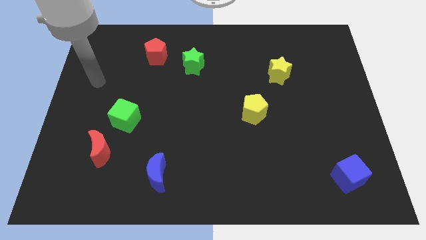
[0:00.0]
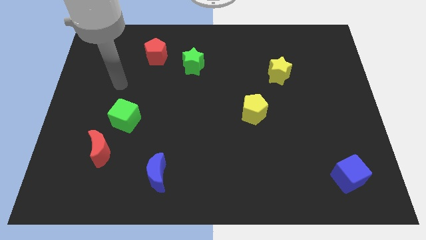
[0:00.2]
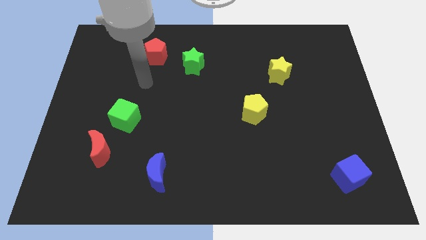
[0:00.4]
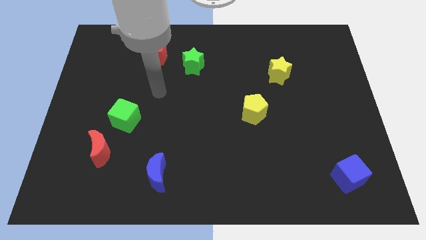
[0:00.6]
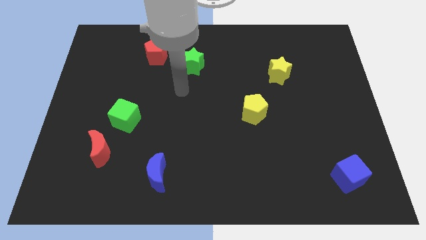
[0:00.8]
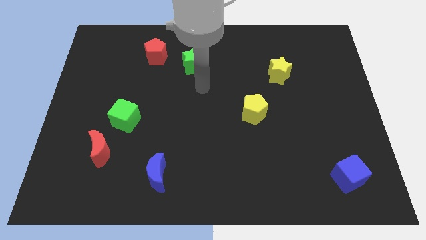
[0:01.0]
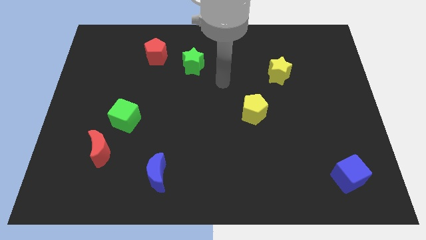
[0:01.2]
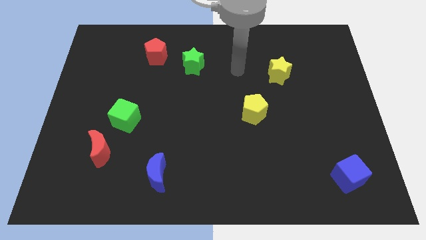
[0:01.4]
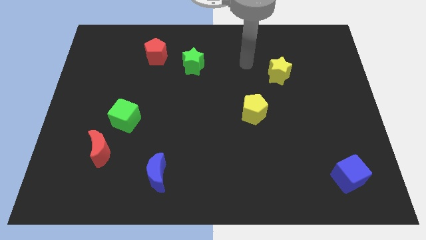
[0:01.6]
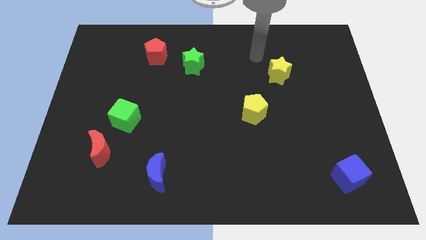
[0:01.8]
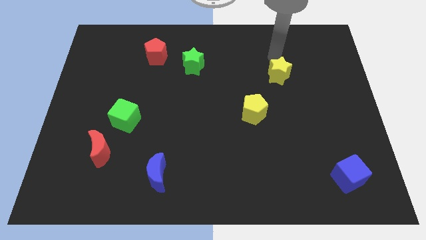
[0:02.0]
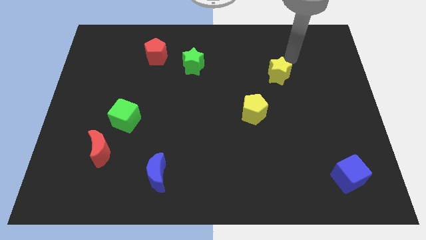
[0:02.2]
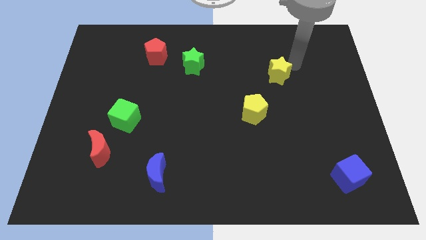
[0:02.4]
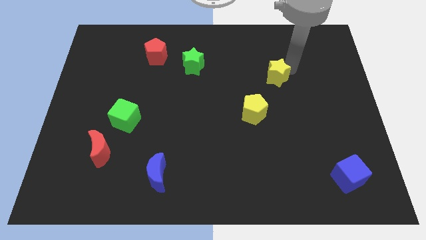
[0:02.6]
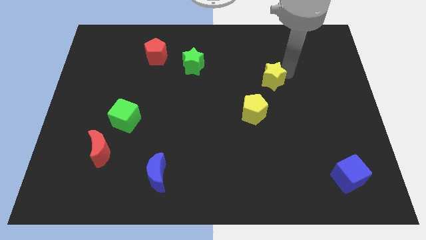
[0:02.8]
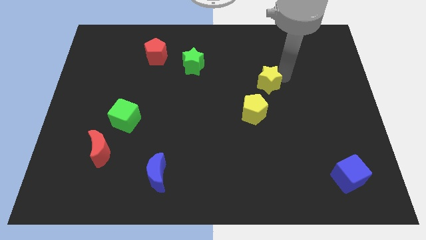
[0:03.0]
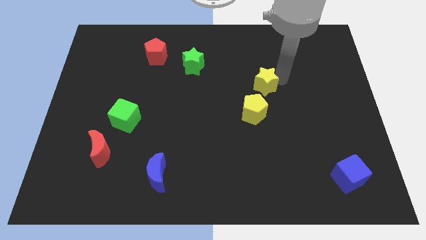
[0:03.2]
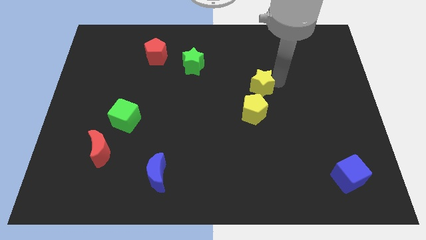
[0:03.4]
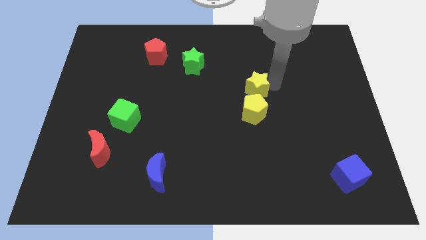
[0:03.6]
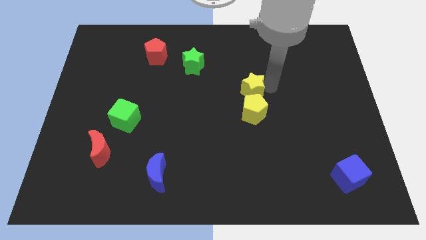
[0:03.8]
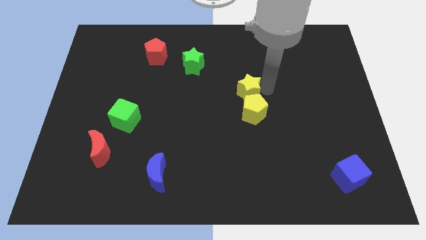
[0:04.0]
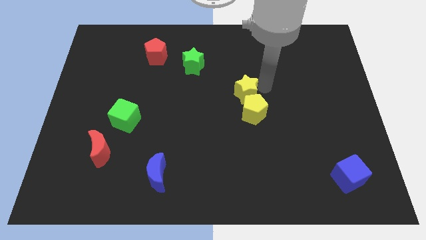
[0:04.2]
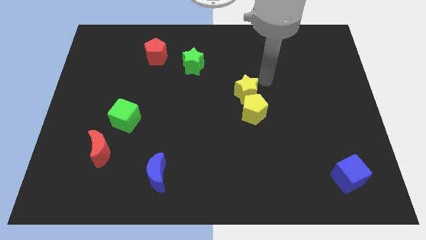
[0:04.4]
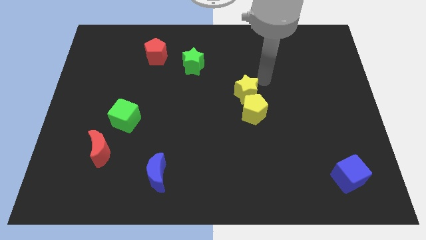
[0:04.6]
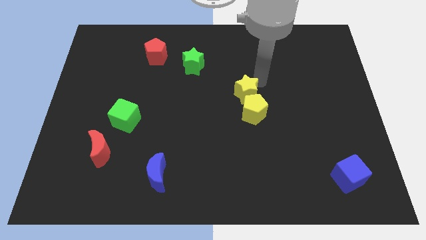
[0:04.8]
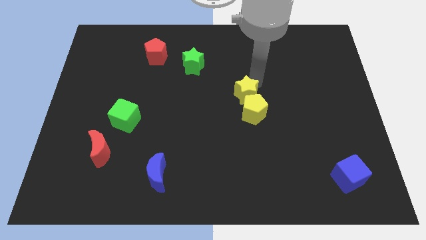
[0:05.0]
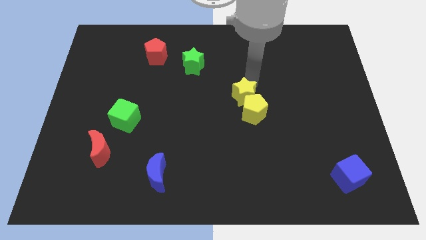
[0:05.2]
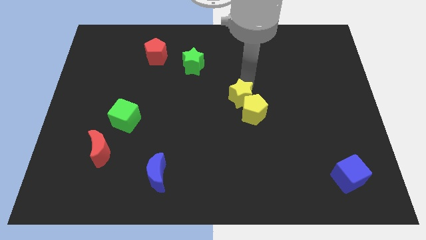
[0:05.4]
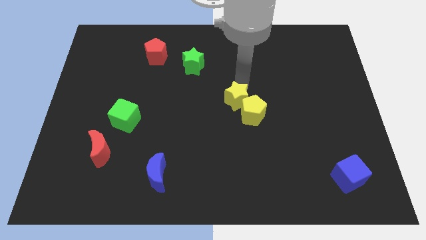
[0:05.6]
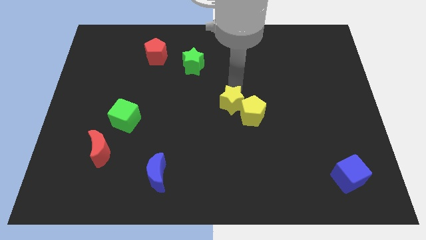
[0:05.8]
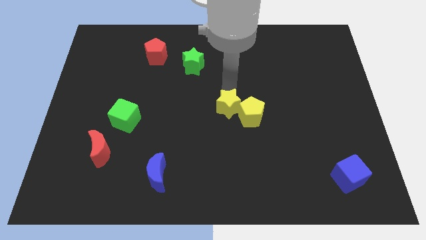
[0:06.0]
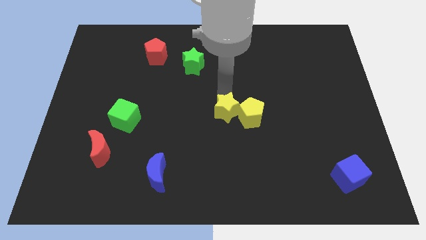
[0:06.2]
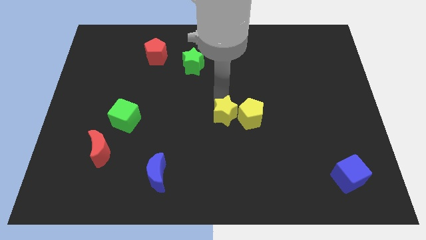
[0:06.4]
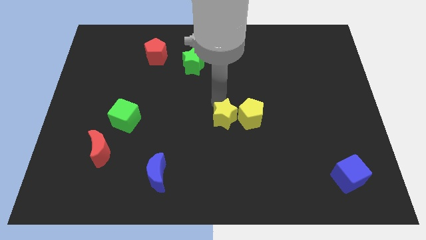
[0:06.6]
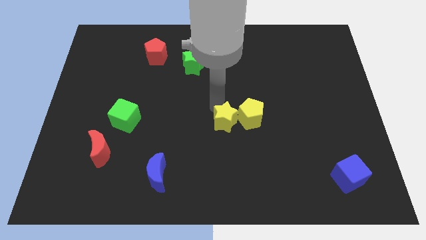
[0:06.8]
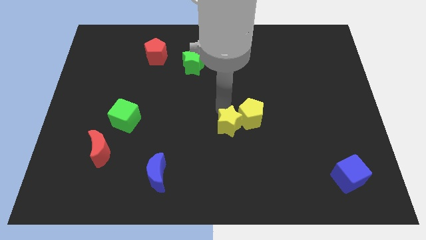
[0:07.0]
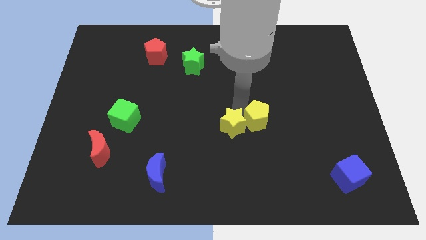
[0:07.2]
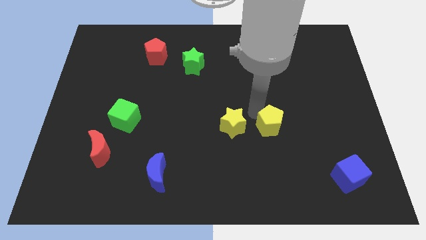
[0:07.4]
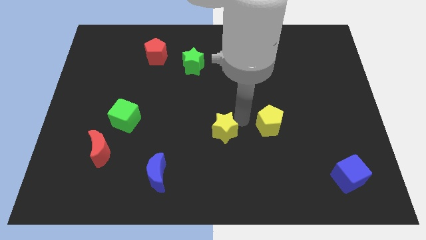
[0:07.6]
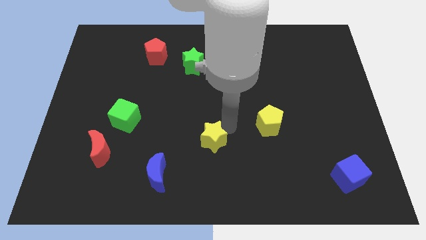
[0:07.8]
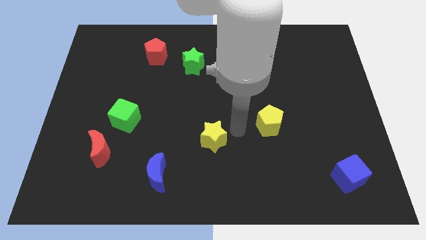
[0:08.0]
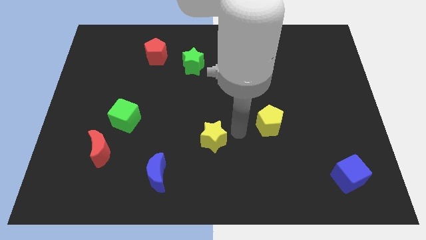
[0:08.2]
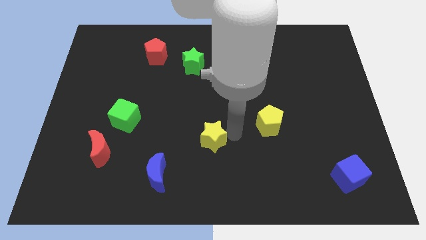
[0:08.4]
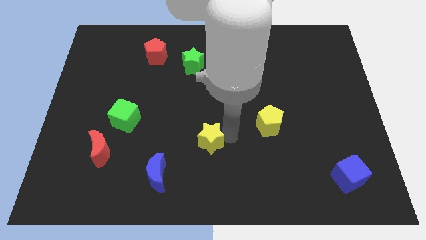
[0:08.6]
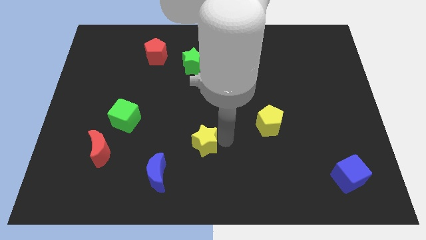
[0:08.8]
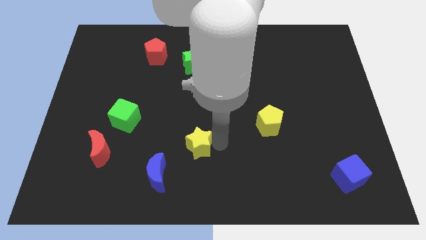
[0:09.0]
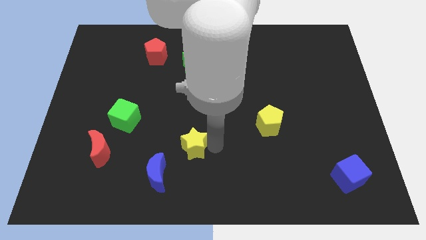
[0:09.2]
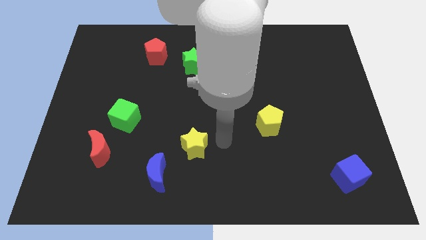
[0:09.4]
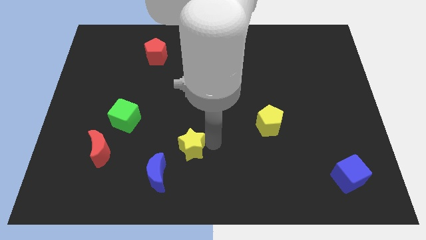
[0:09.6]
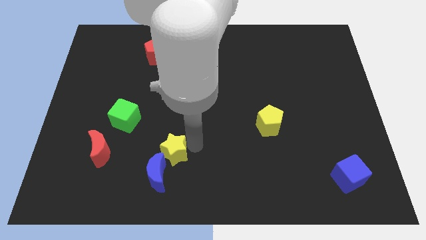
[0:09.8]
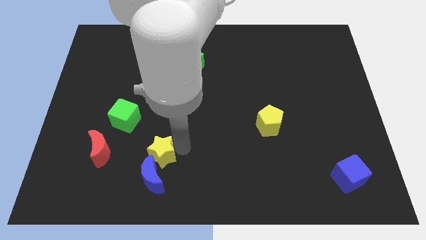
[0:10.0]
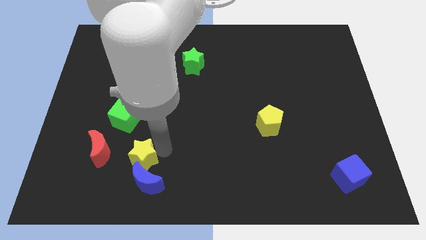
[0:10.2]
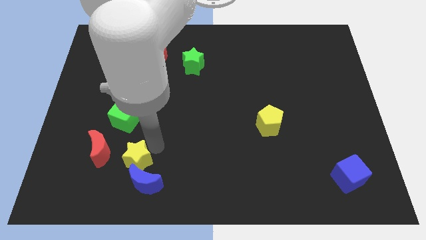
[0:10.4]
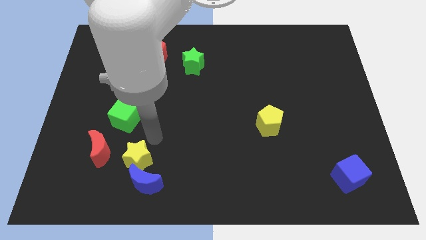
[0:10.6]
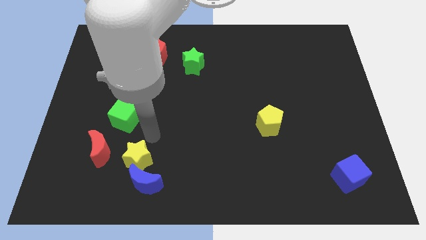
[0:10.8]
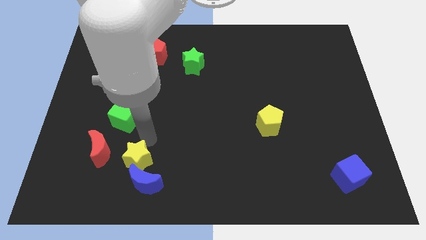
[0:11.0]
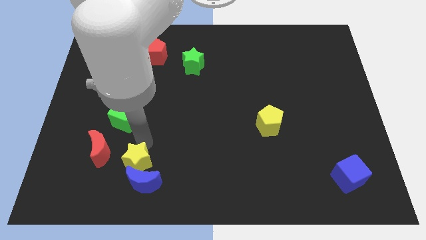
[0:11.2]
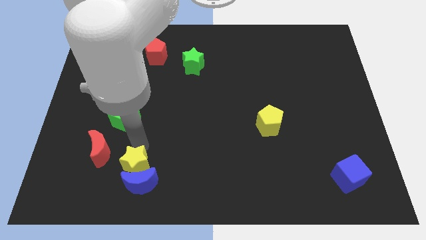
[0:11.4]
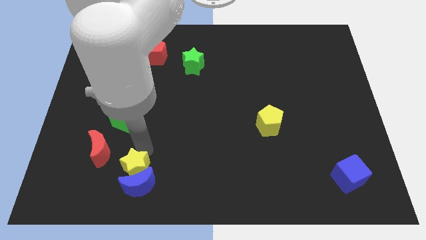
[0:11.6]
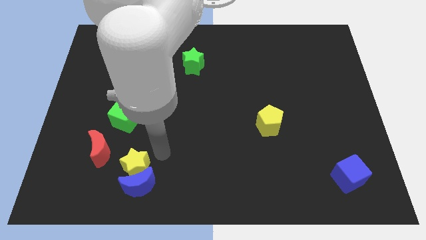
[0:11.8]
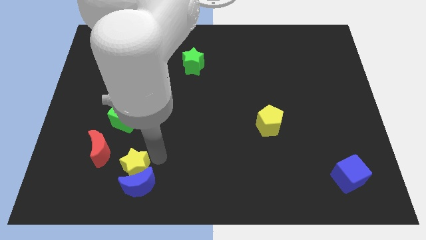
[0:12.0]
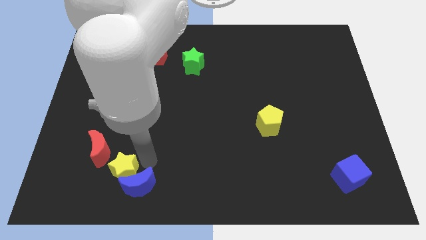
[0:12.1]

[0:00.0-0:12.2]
move the yellow star to the left side of the blue moon

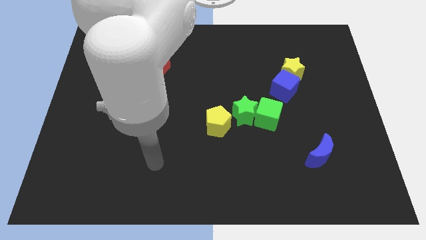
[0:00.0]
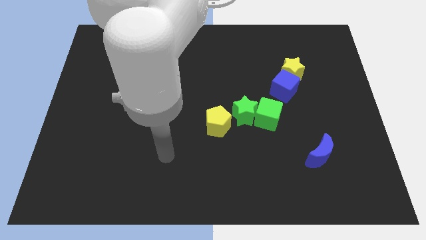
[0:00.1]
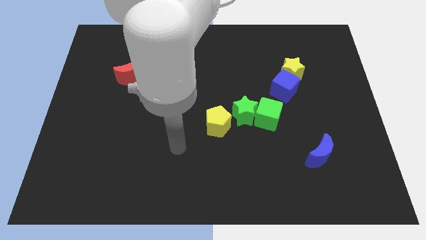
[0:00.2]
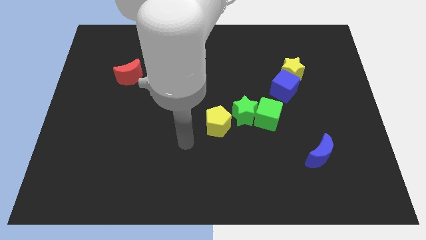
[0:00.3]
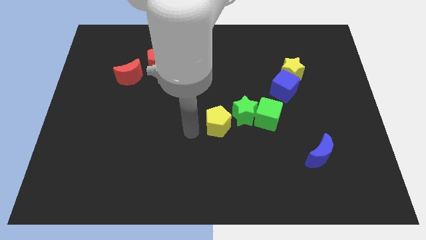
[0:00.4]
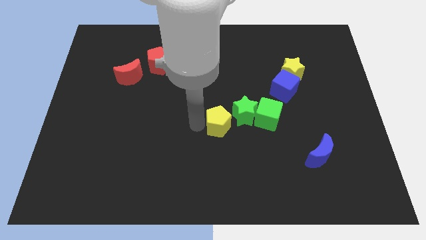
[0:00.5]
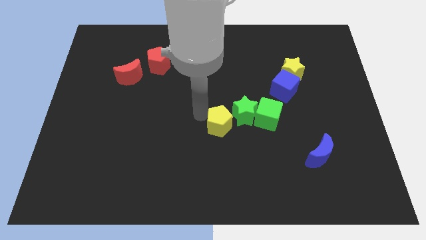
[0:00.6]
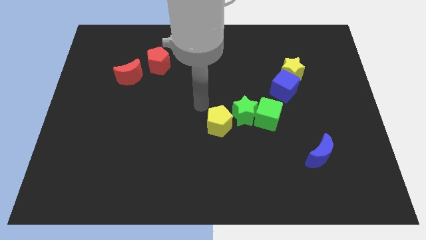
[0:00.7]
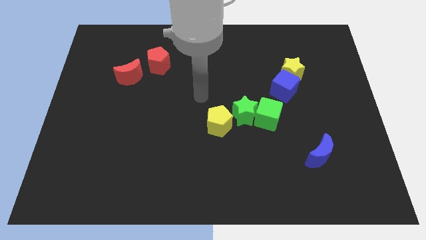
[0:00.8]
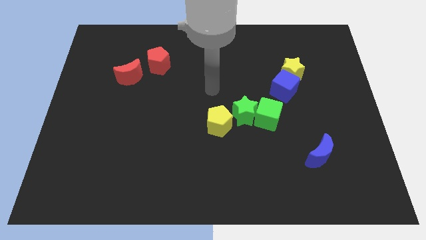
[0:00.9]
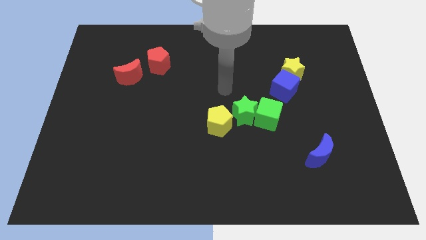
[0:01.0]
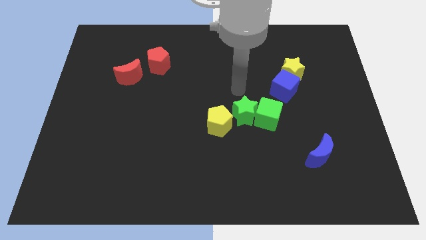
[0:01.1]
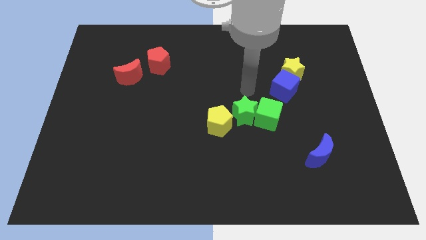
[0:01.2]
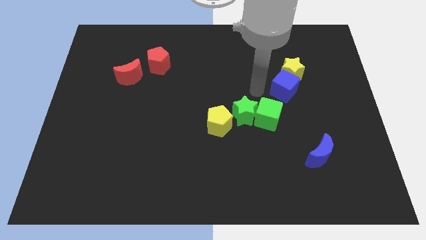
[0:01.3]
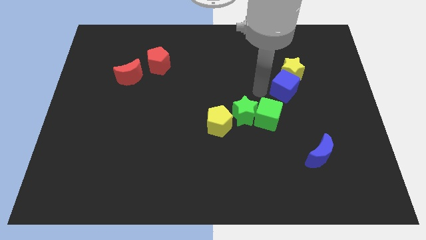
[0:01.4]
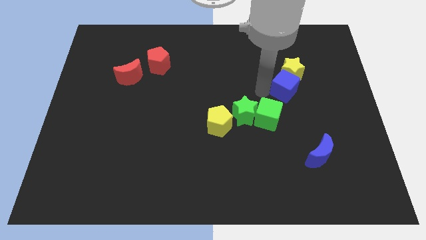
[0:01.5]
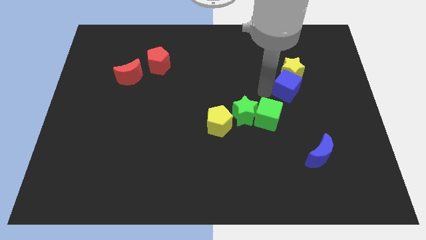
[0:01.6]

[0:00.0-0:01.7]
push the blue cube to the bottom right of the yellow star

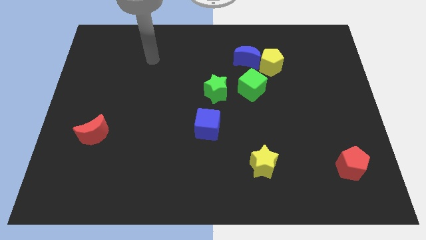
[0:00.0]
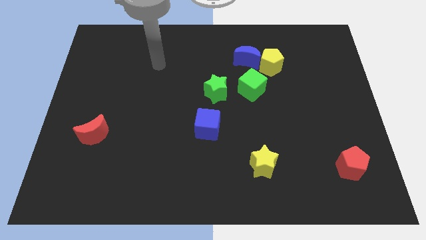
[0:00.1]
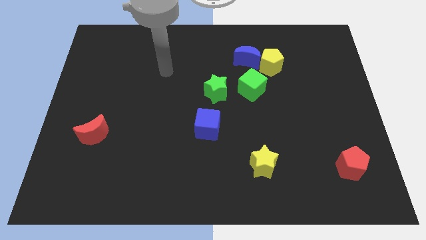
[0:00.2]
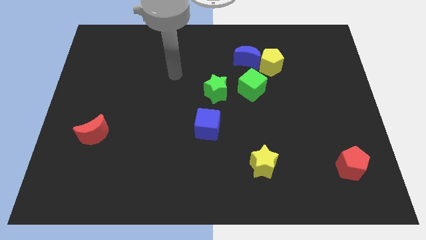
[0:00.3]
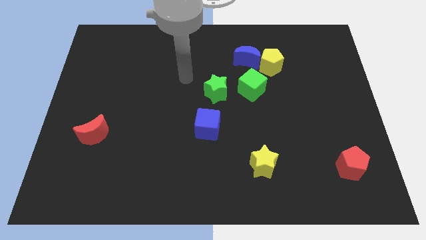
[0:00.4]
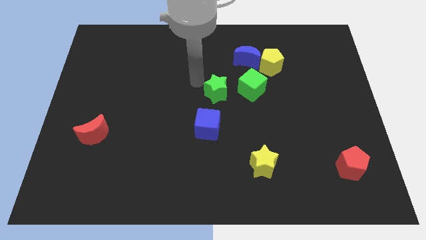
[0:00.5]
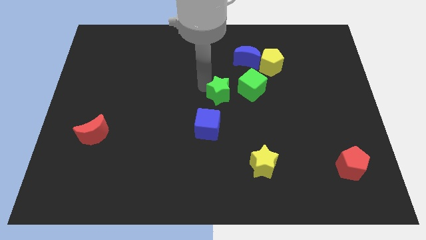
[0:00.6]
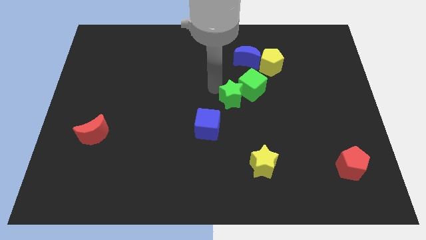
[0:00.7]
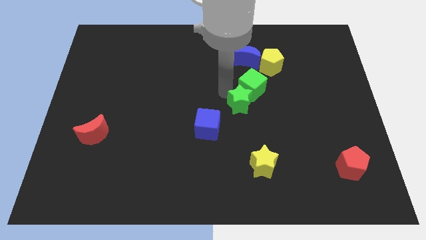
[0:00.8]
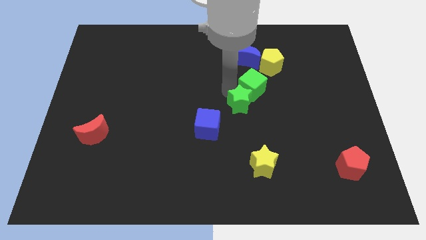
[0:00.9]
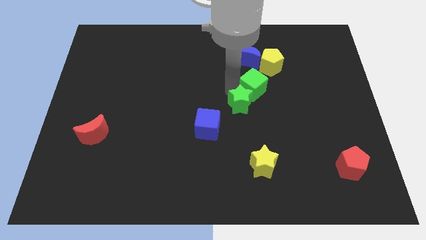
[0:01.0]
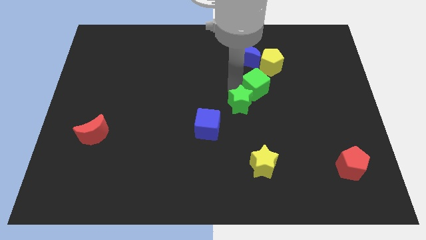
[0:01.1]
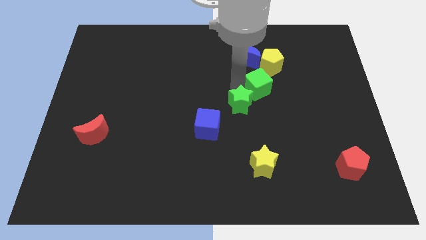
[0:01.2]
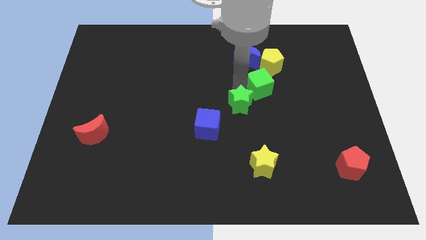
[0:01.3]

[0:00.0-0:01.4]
put the green cube to the bottom right of the blue moon
